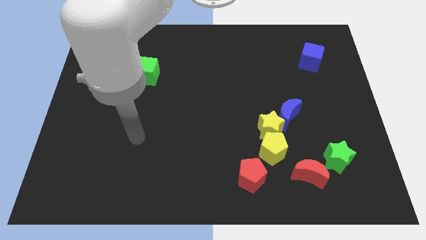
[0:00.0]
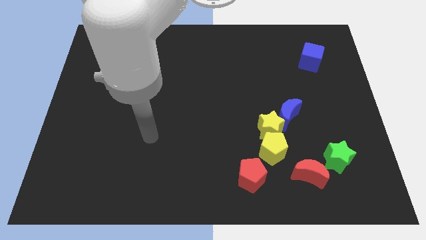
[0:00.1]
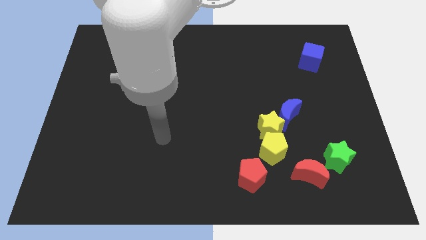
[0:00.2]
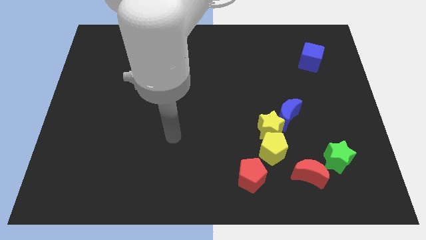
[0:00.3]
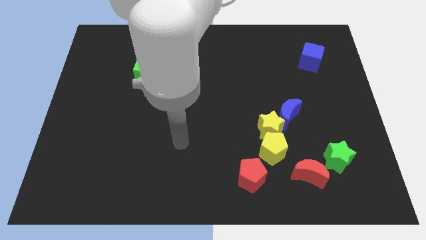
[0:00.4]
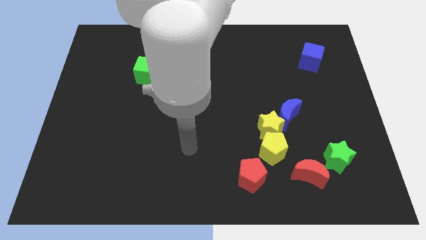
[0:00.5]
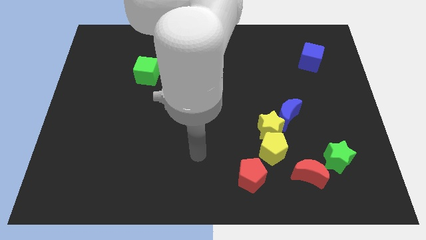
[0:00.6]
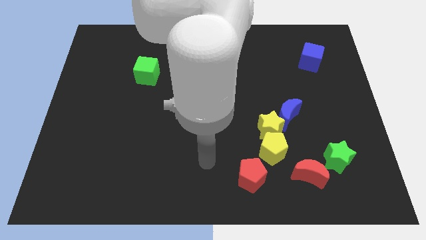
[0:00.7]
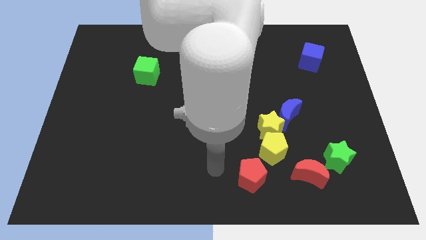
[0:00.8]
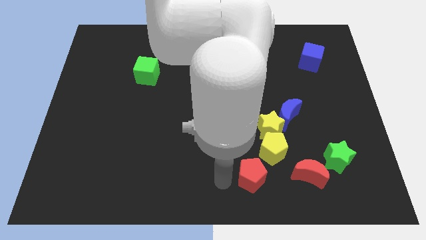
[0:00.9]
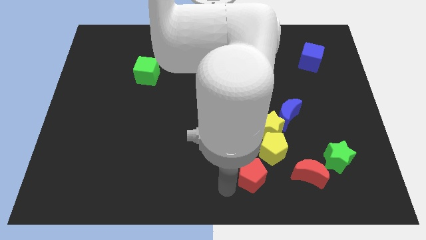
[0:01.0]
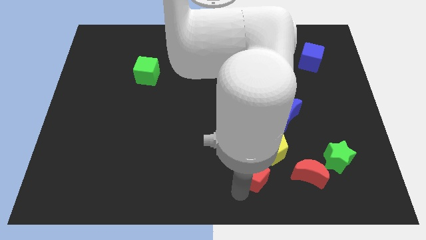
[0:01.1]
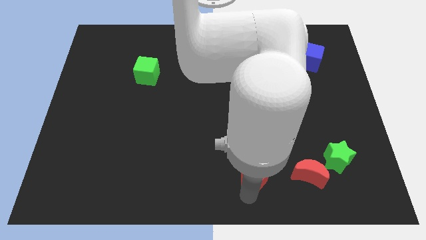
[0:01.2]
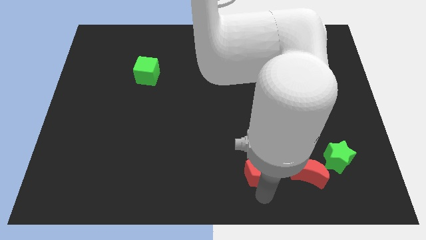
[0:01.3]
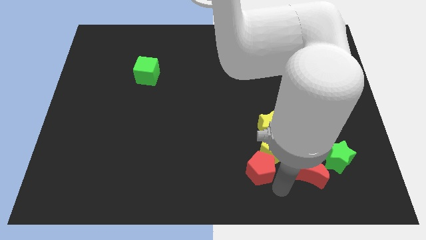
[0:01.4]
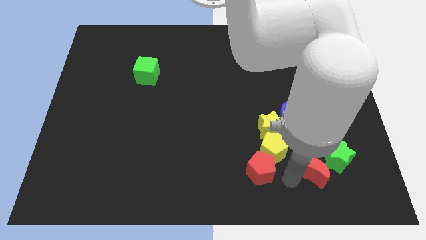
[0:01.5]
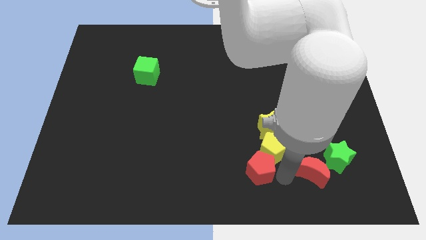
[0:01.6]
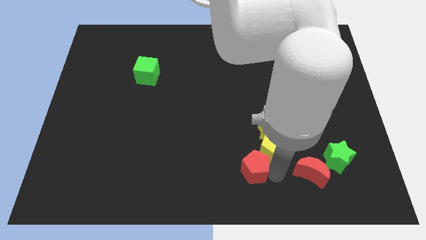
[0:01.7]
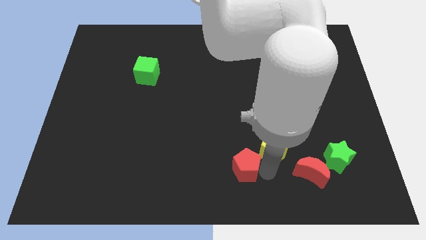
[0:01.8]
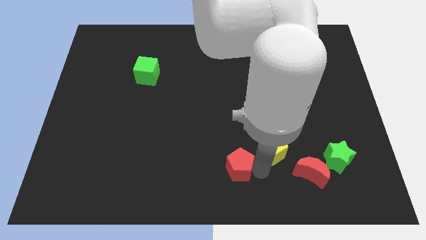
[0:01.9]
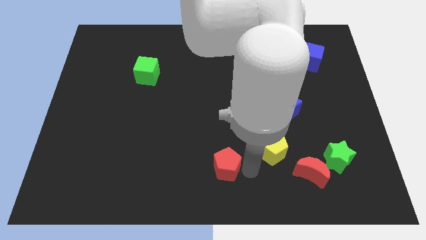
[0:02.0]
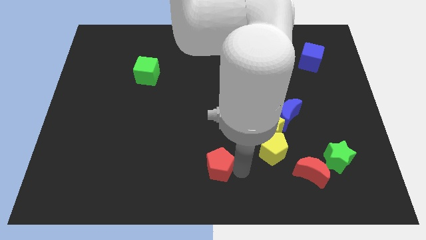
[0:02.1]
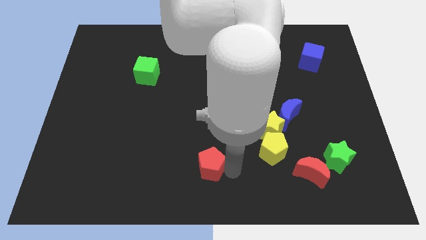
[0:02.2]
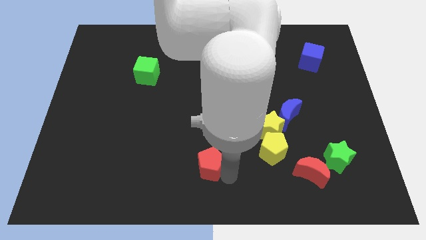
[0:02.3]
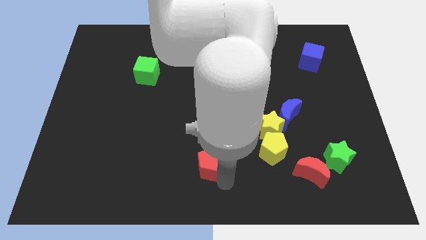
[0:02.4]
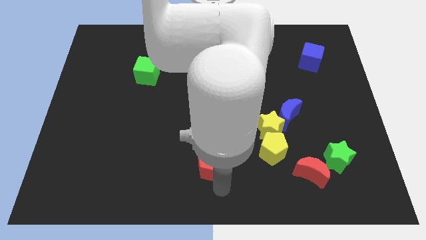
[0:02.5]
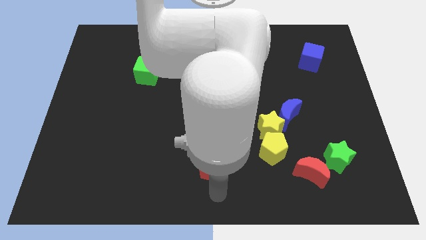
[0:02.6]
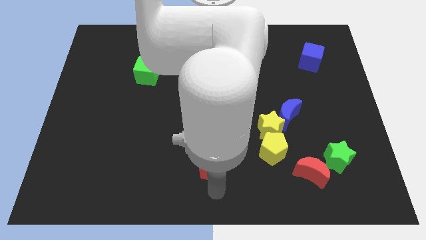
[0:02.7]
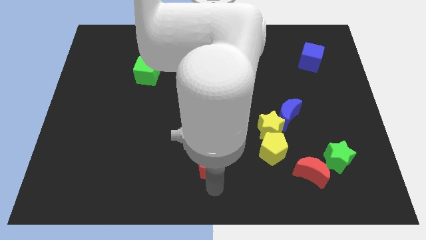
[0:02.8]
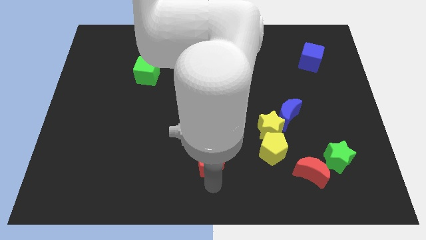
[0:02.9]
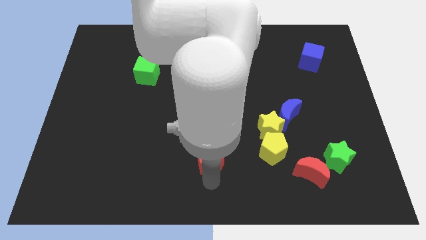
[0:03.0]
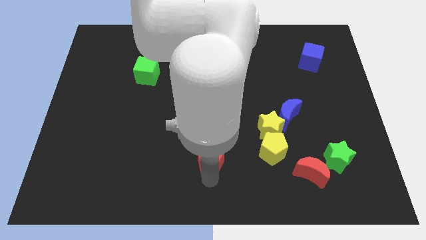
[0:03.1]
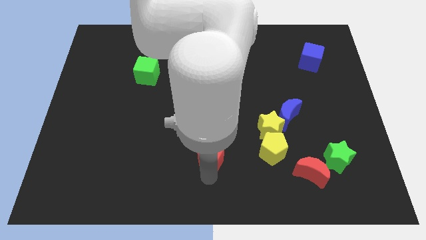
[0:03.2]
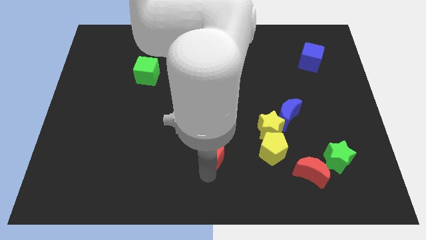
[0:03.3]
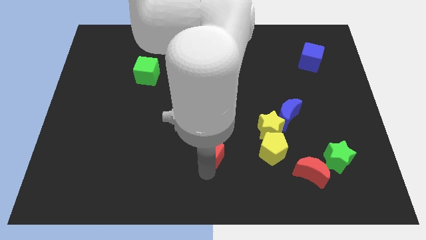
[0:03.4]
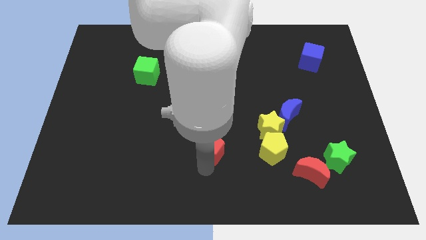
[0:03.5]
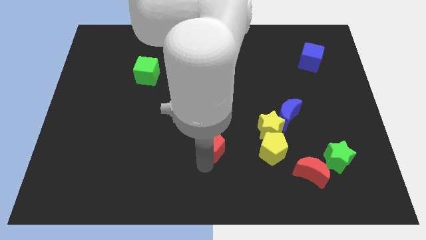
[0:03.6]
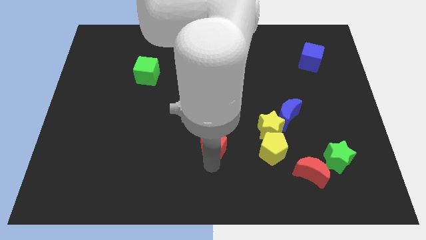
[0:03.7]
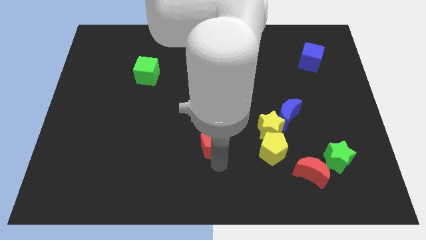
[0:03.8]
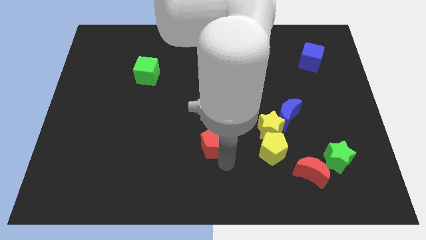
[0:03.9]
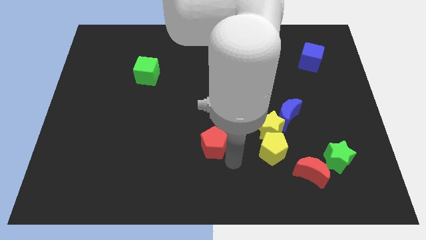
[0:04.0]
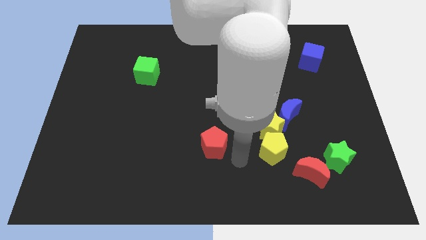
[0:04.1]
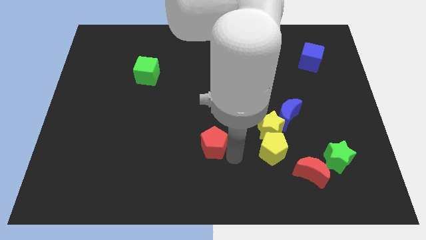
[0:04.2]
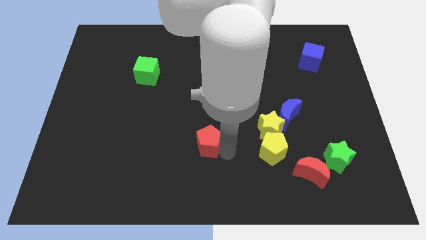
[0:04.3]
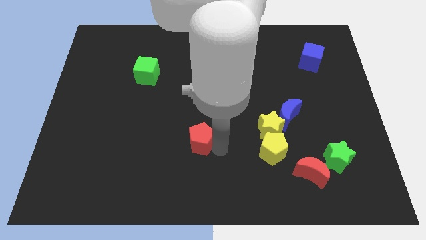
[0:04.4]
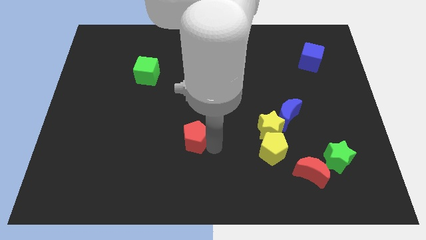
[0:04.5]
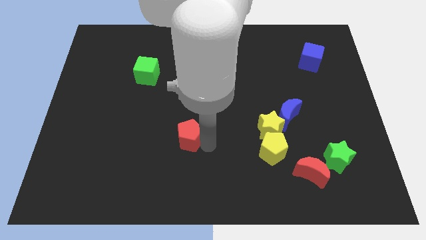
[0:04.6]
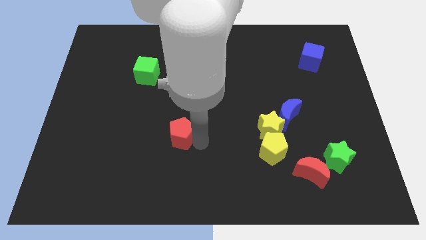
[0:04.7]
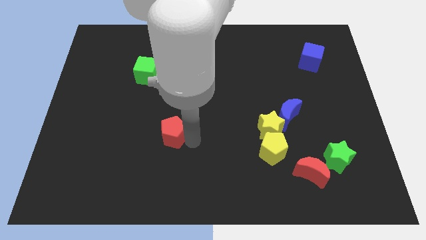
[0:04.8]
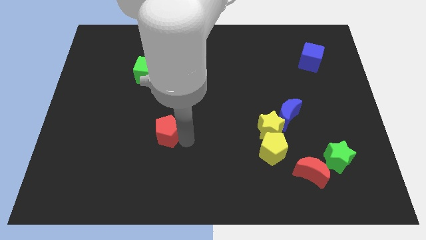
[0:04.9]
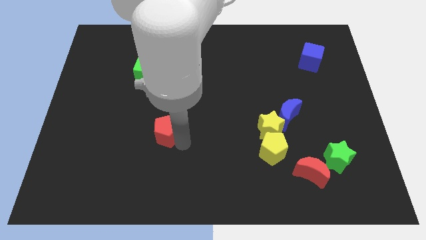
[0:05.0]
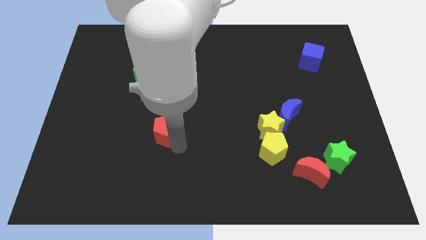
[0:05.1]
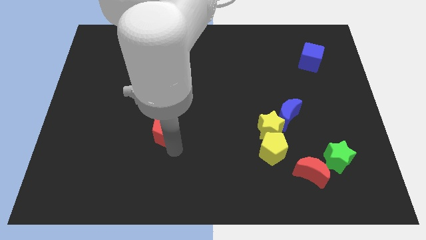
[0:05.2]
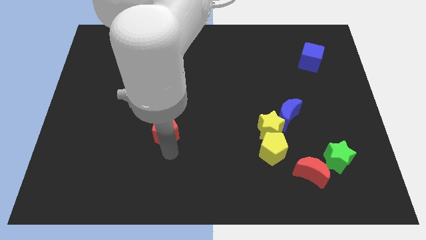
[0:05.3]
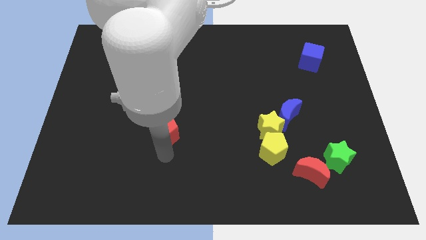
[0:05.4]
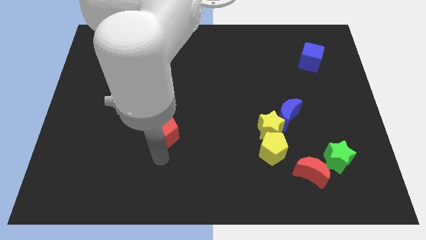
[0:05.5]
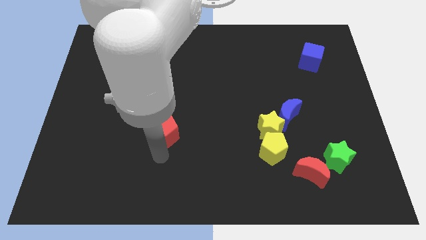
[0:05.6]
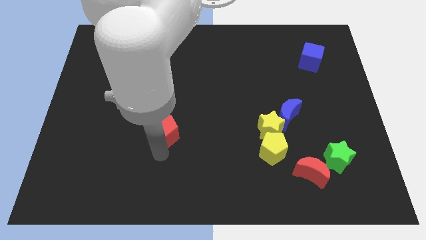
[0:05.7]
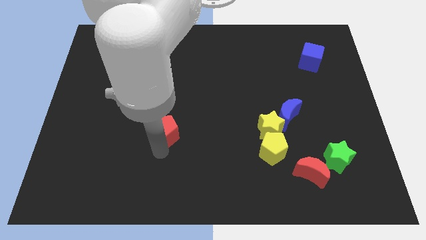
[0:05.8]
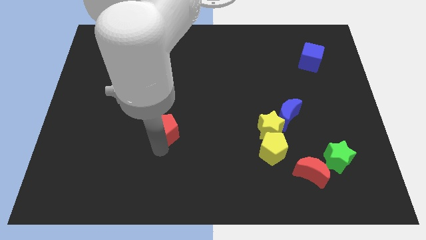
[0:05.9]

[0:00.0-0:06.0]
push the red pentagon upwards and left

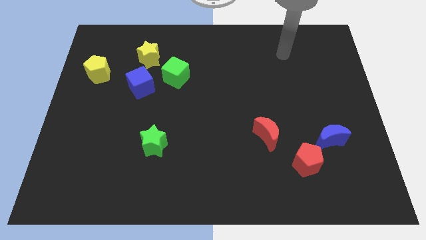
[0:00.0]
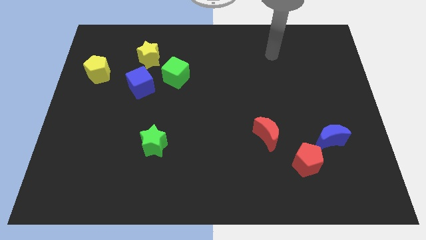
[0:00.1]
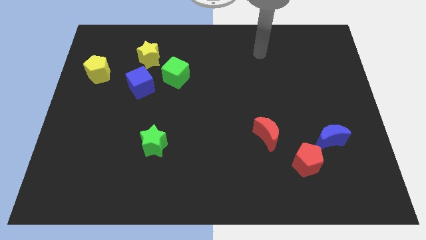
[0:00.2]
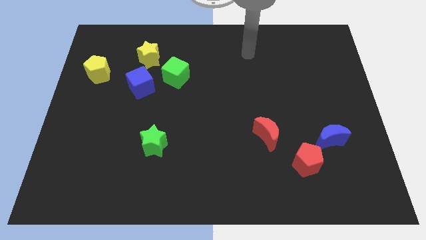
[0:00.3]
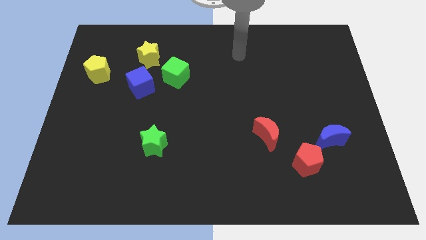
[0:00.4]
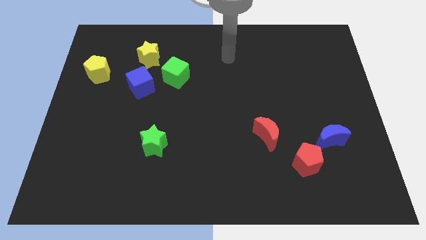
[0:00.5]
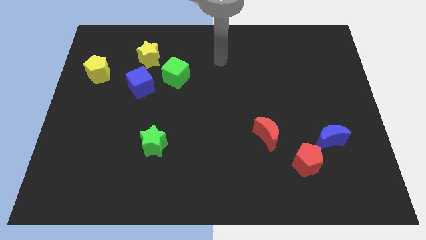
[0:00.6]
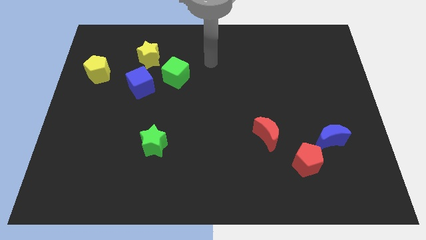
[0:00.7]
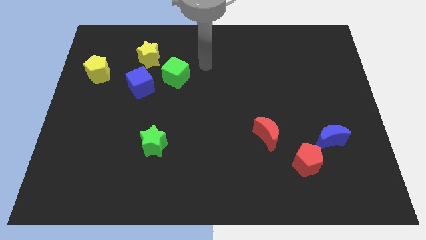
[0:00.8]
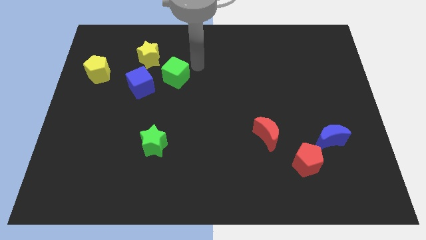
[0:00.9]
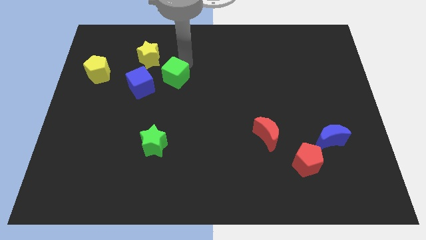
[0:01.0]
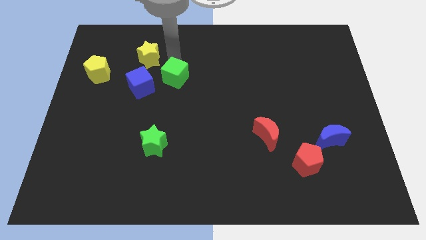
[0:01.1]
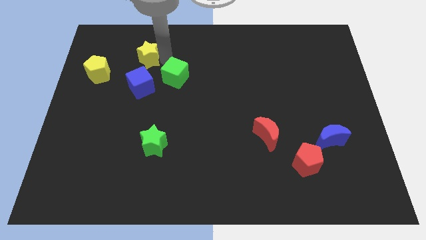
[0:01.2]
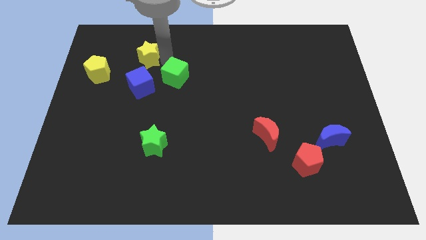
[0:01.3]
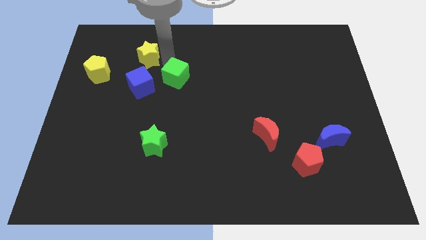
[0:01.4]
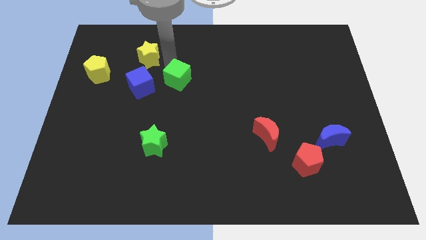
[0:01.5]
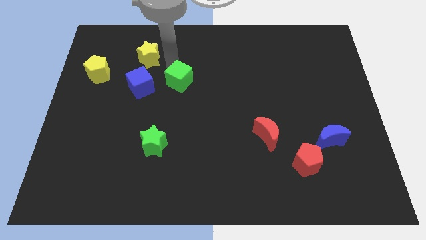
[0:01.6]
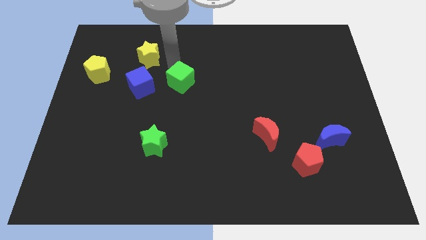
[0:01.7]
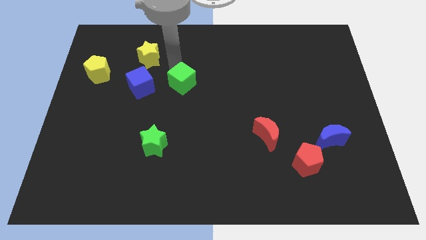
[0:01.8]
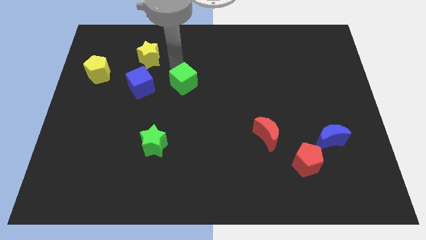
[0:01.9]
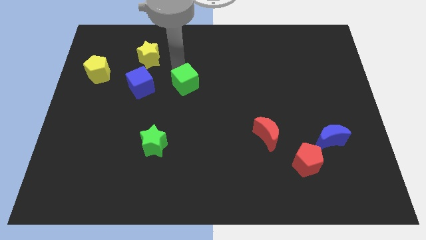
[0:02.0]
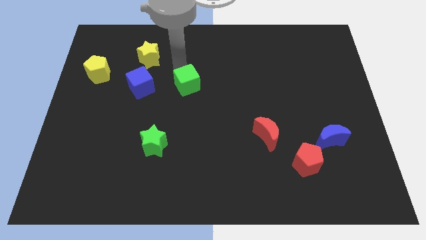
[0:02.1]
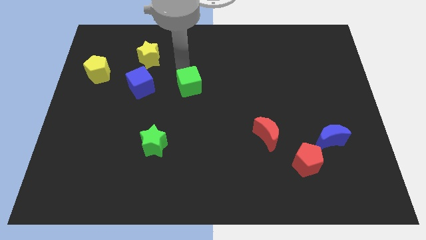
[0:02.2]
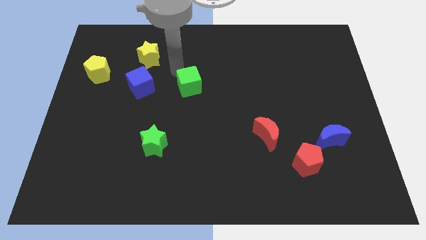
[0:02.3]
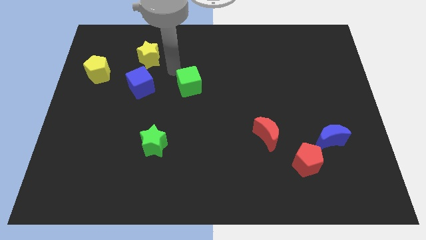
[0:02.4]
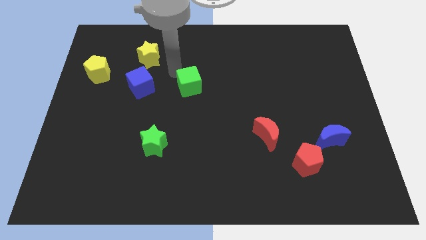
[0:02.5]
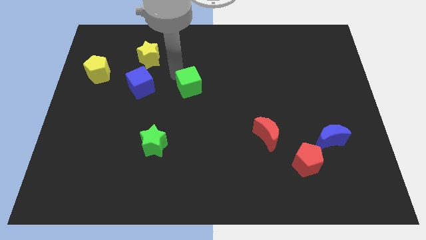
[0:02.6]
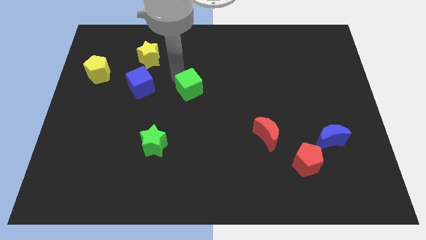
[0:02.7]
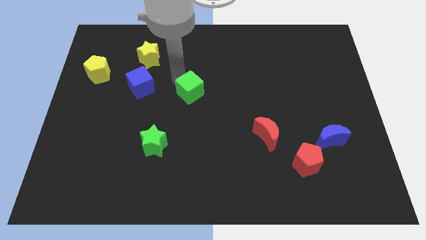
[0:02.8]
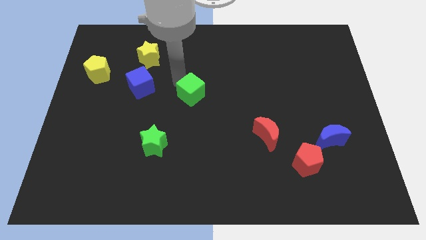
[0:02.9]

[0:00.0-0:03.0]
slide the green cube down and right diagonally a little
